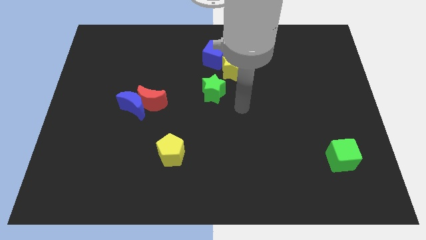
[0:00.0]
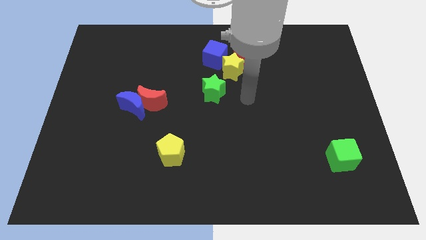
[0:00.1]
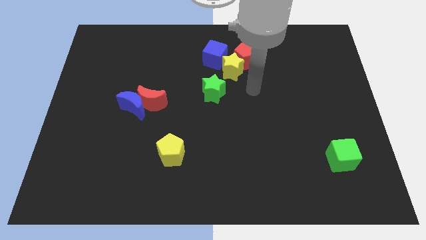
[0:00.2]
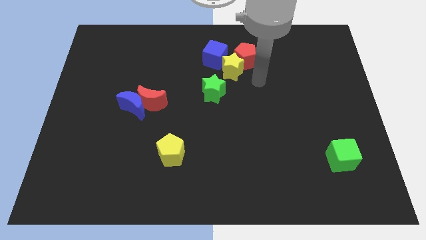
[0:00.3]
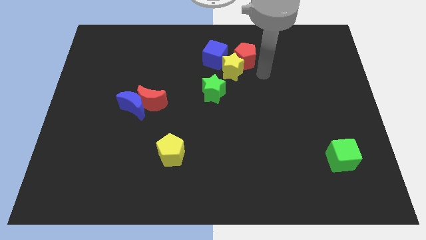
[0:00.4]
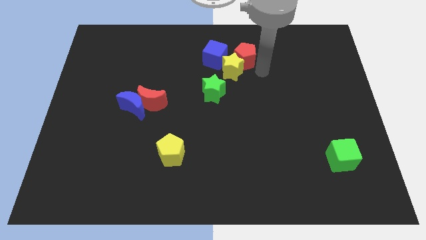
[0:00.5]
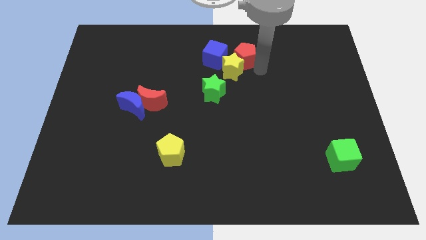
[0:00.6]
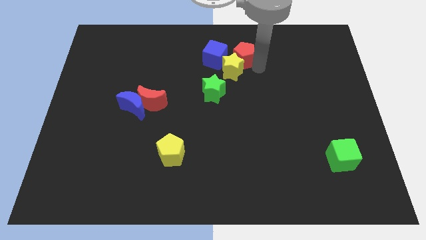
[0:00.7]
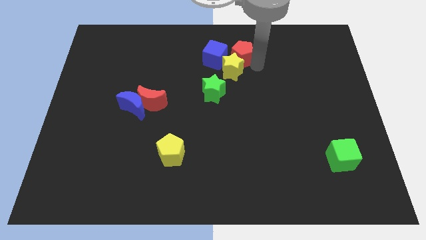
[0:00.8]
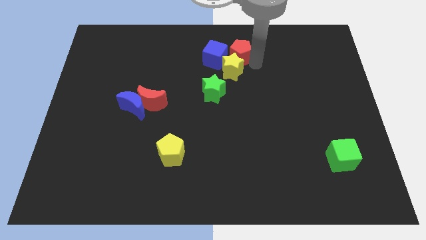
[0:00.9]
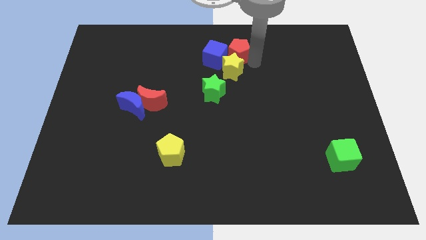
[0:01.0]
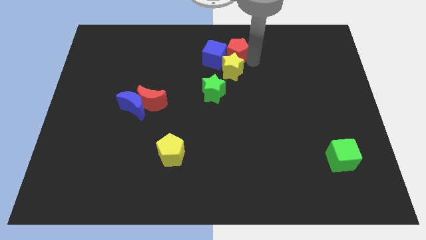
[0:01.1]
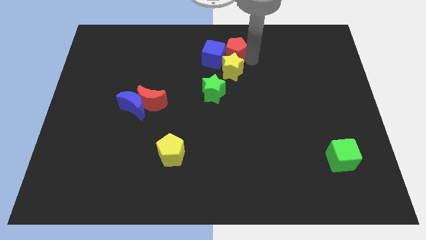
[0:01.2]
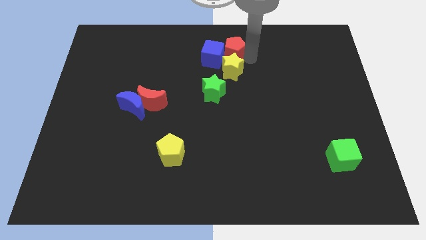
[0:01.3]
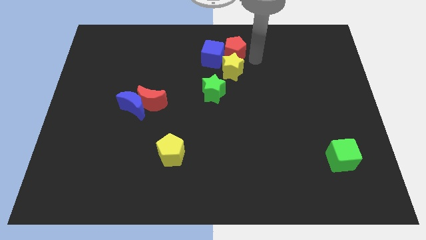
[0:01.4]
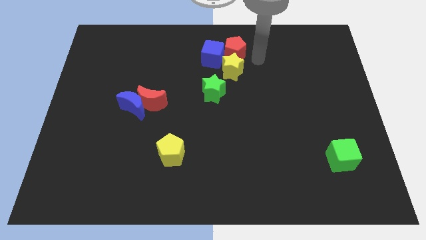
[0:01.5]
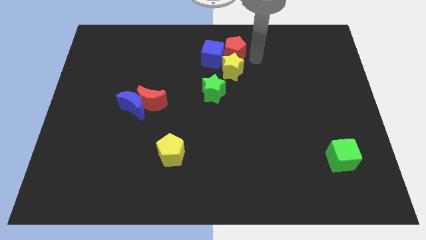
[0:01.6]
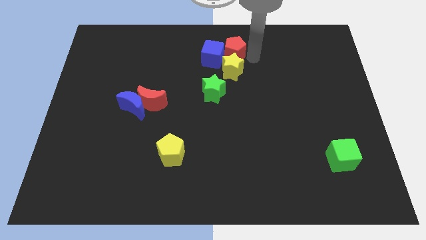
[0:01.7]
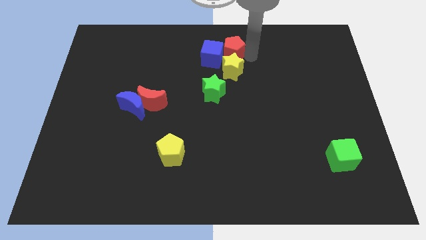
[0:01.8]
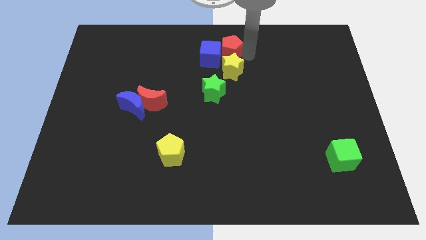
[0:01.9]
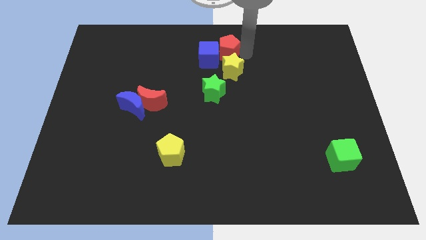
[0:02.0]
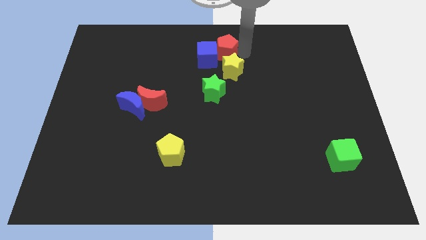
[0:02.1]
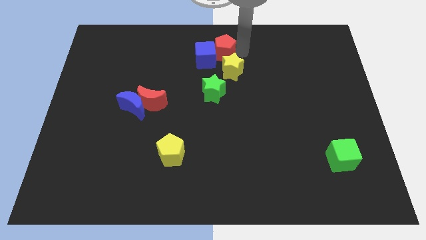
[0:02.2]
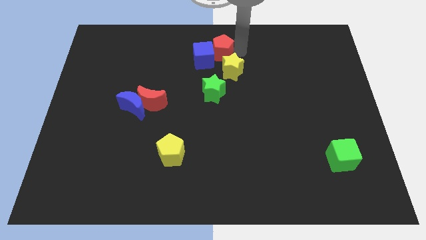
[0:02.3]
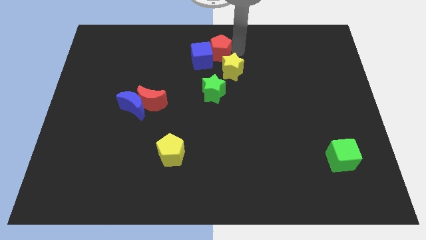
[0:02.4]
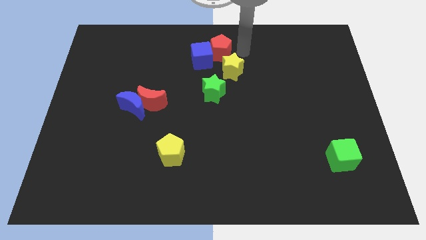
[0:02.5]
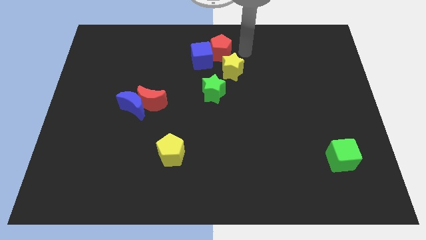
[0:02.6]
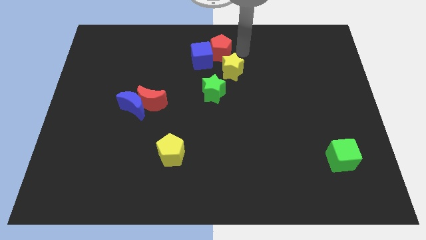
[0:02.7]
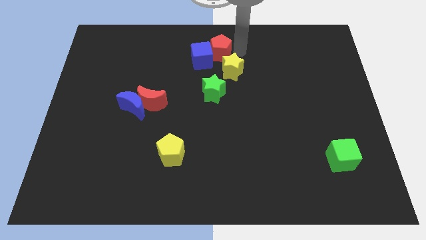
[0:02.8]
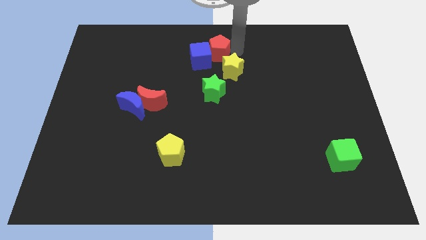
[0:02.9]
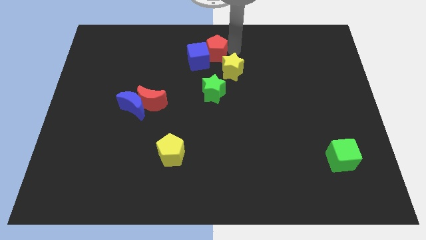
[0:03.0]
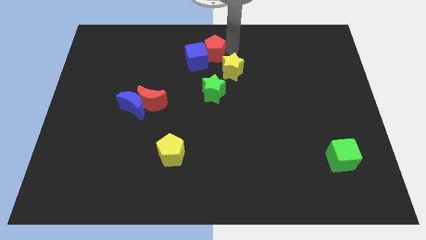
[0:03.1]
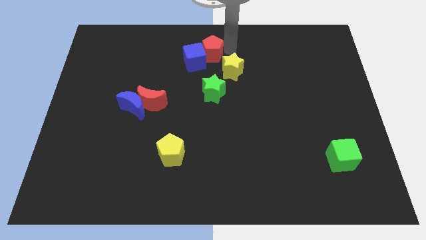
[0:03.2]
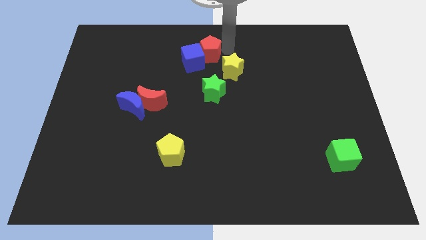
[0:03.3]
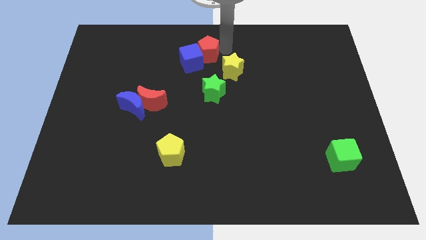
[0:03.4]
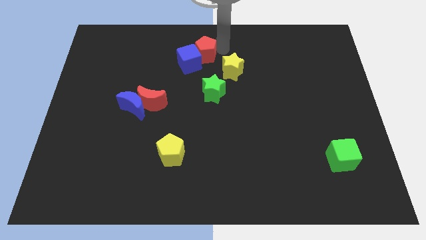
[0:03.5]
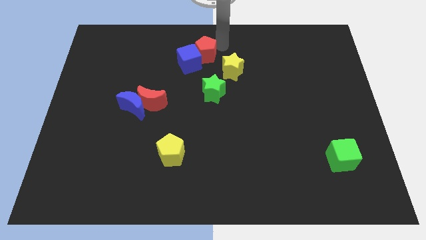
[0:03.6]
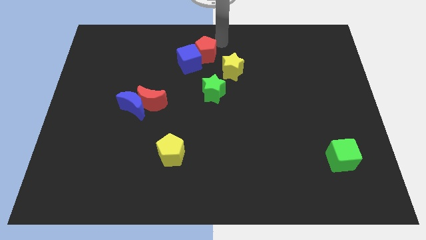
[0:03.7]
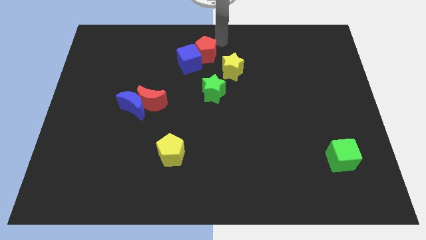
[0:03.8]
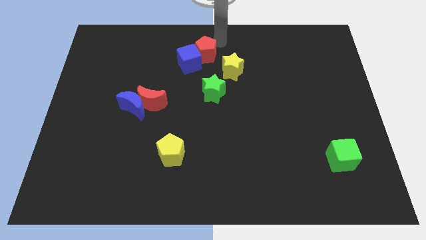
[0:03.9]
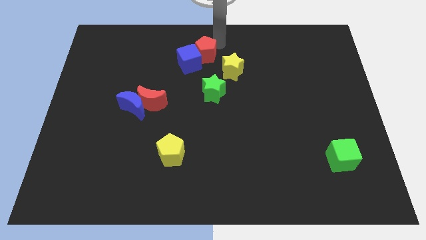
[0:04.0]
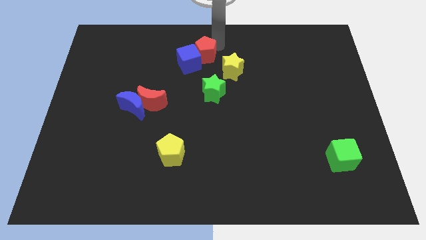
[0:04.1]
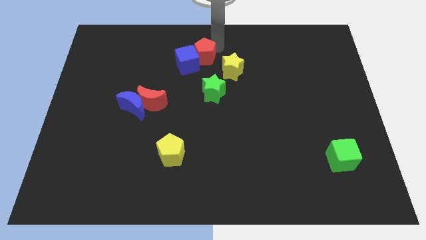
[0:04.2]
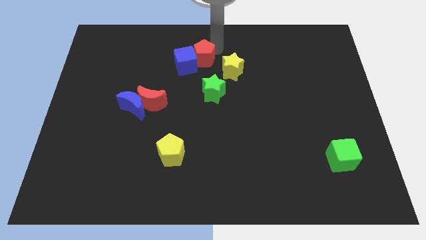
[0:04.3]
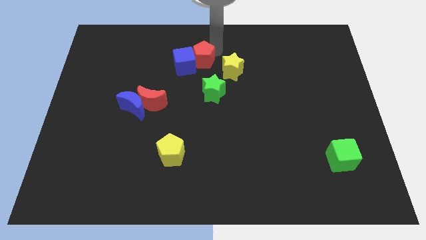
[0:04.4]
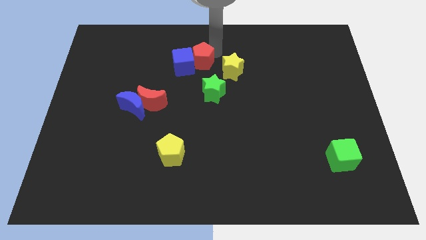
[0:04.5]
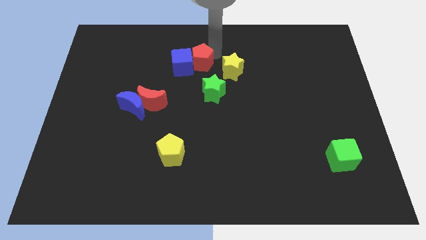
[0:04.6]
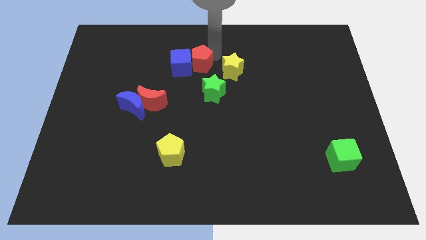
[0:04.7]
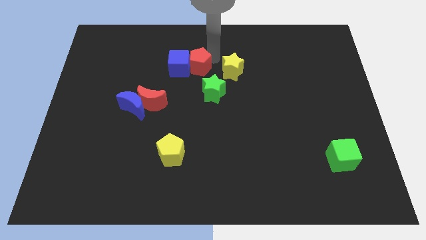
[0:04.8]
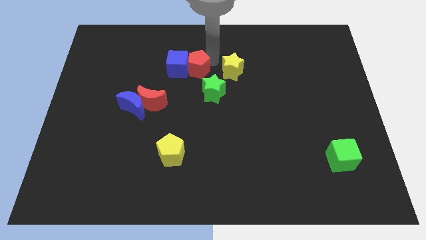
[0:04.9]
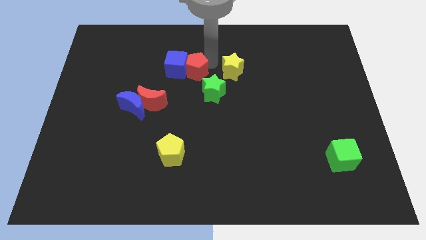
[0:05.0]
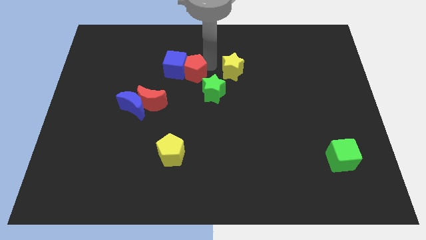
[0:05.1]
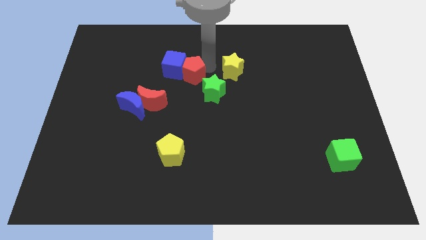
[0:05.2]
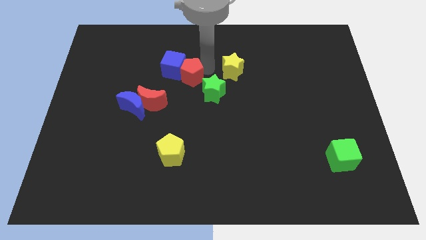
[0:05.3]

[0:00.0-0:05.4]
slide the red pentagon to the top right side of the red moon

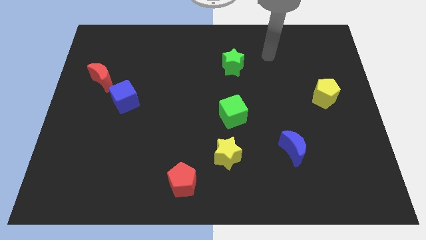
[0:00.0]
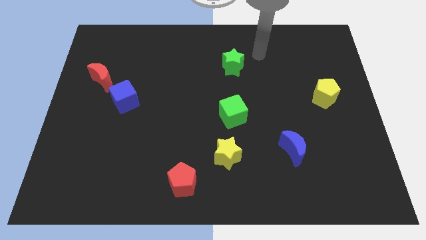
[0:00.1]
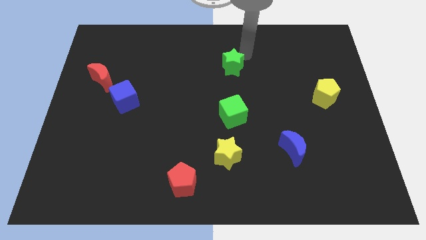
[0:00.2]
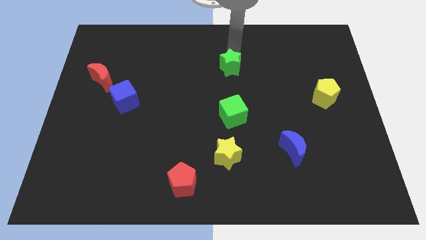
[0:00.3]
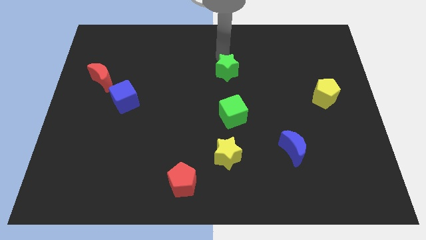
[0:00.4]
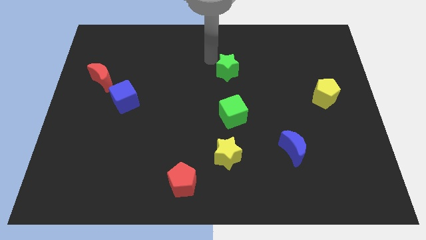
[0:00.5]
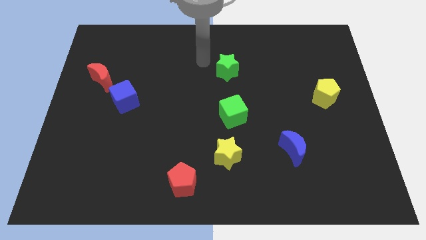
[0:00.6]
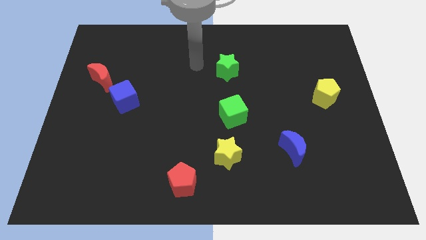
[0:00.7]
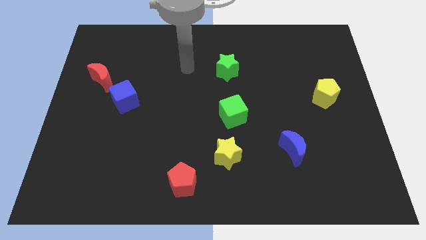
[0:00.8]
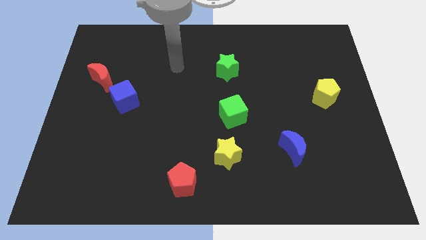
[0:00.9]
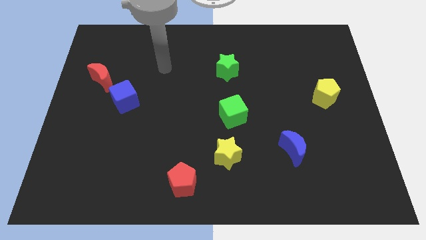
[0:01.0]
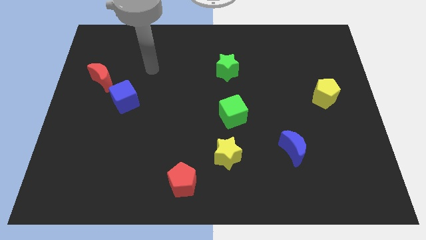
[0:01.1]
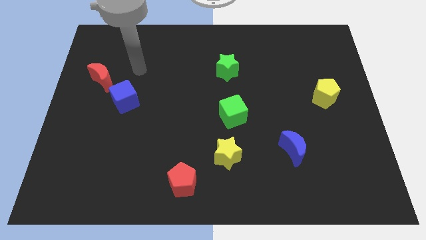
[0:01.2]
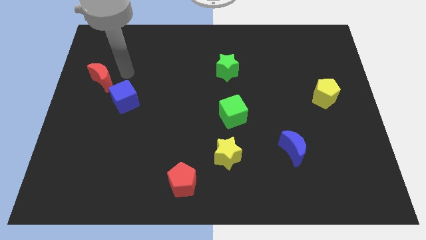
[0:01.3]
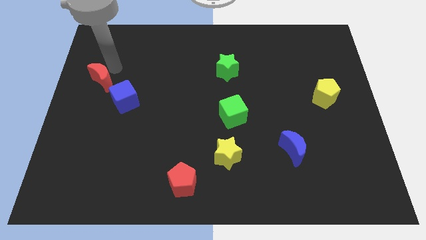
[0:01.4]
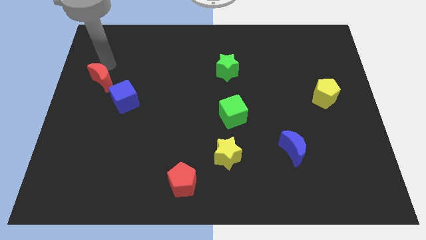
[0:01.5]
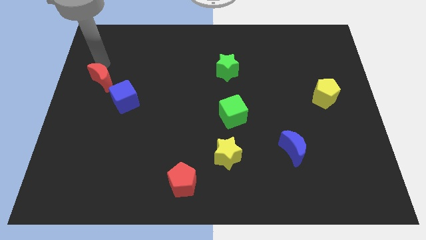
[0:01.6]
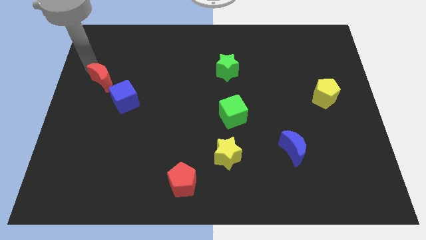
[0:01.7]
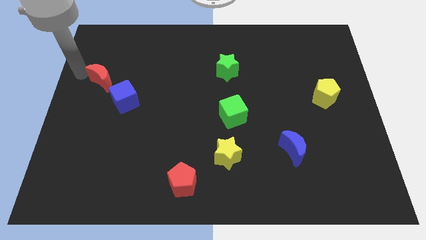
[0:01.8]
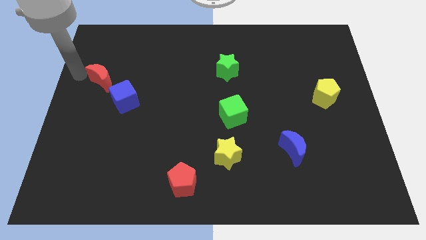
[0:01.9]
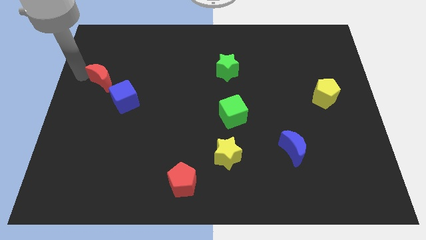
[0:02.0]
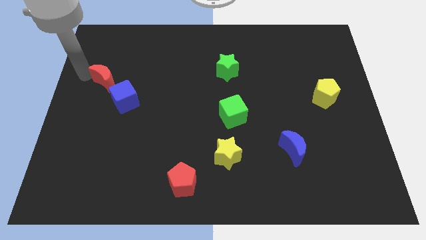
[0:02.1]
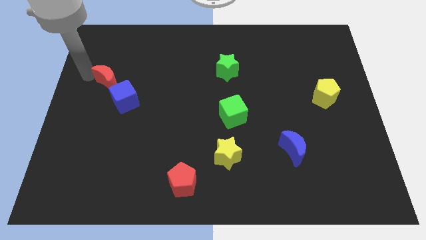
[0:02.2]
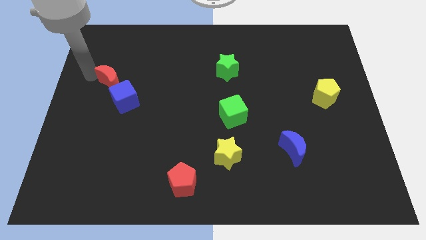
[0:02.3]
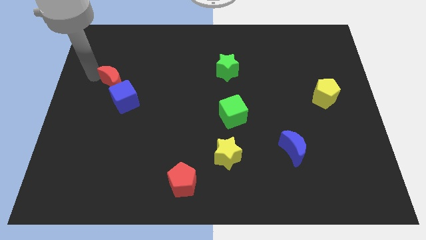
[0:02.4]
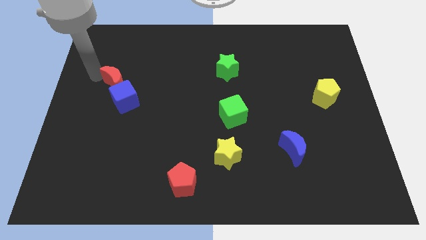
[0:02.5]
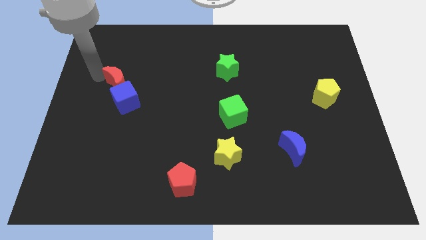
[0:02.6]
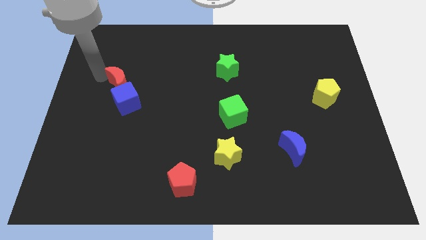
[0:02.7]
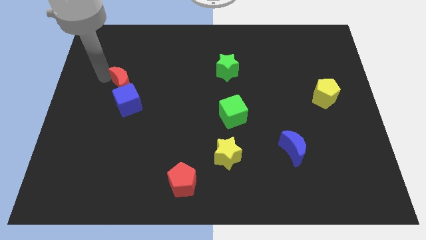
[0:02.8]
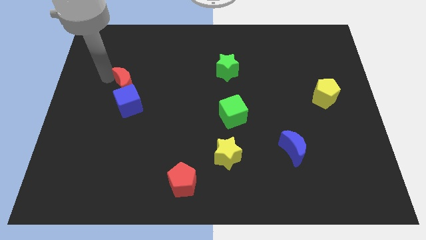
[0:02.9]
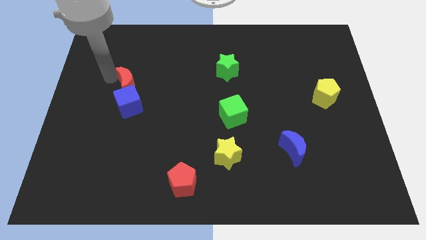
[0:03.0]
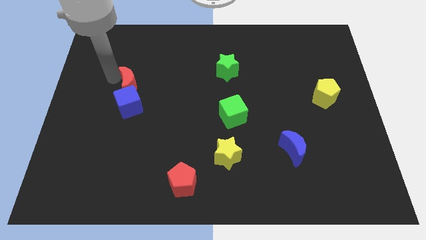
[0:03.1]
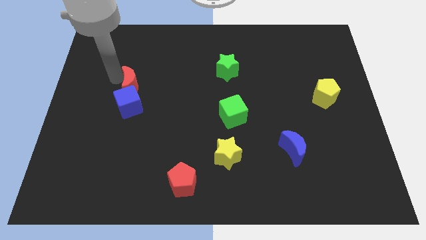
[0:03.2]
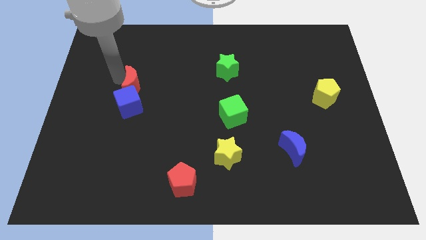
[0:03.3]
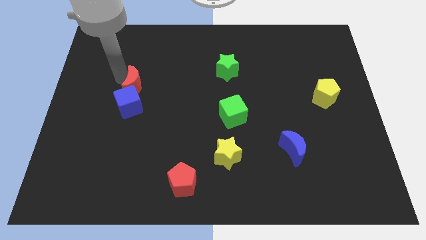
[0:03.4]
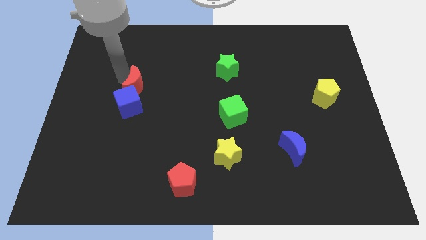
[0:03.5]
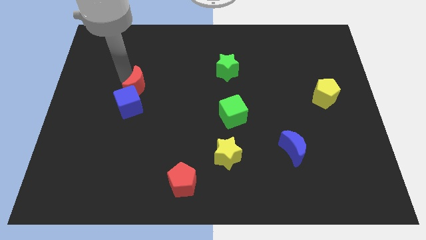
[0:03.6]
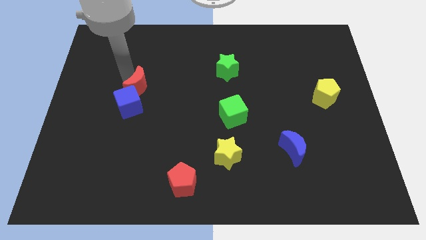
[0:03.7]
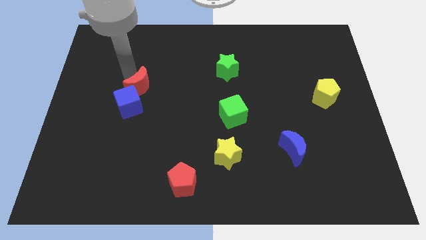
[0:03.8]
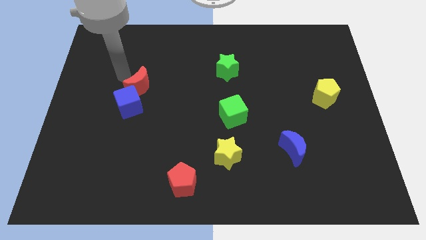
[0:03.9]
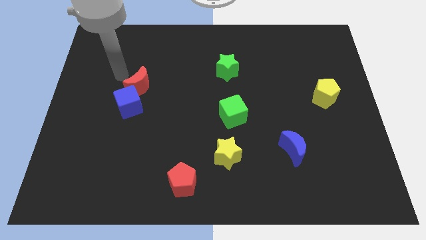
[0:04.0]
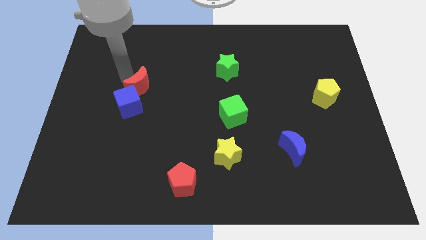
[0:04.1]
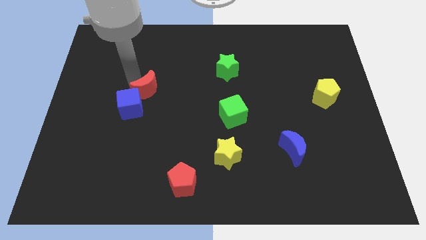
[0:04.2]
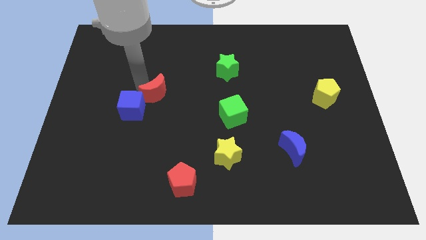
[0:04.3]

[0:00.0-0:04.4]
slide the red moon to the right of the blue cube
